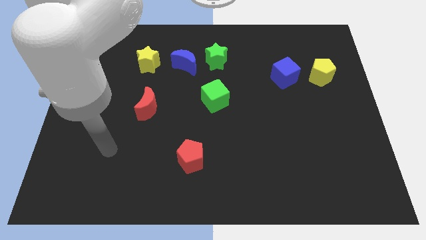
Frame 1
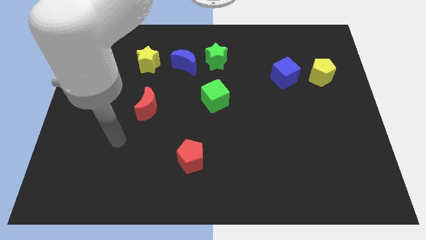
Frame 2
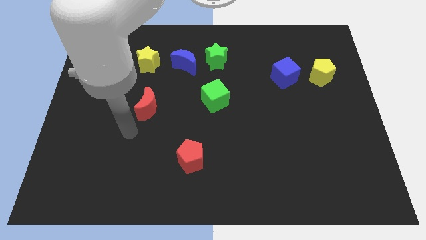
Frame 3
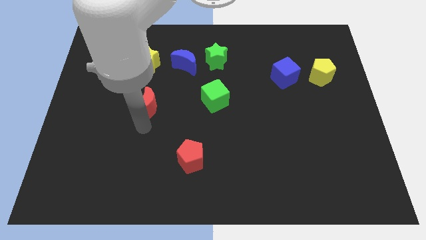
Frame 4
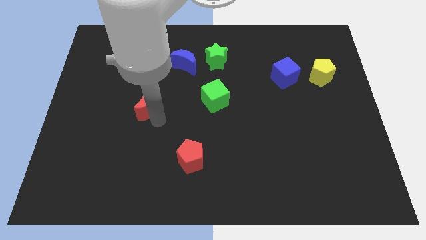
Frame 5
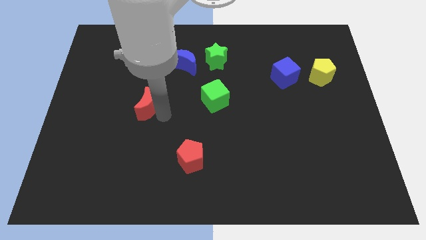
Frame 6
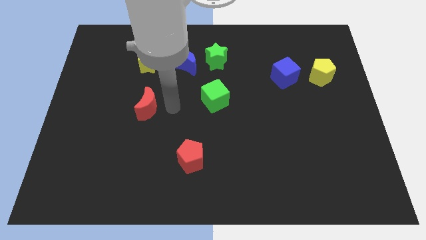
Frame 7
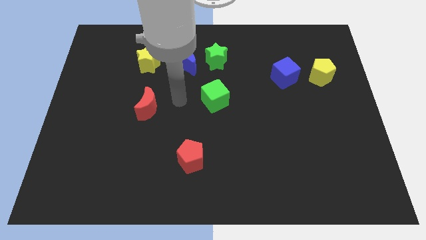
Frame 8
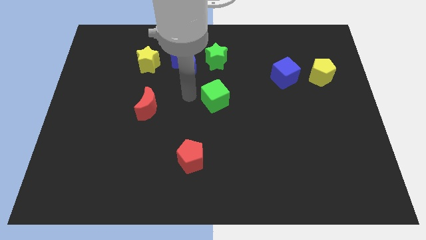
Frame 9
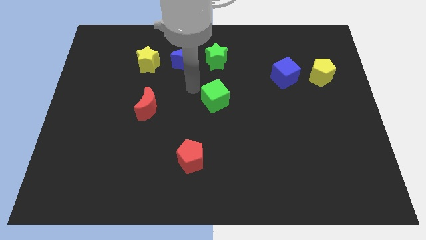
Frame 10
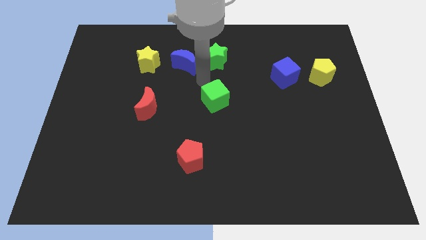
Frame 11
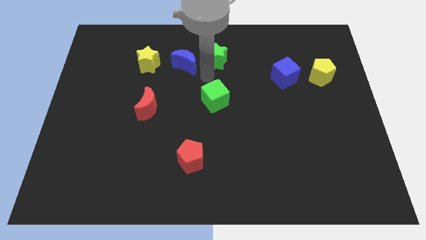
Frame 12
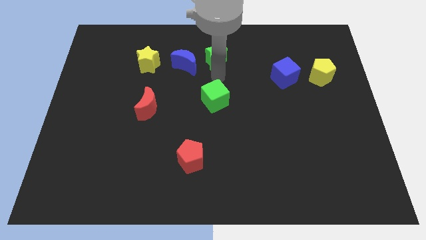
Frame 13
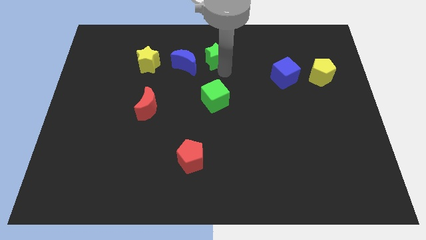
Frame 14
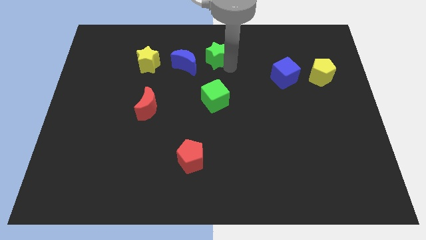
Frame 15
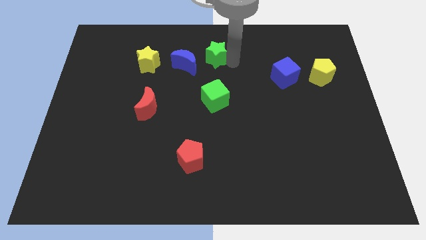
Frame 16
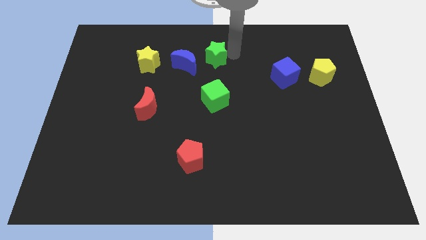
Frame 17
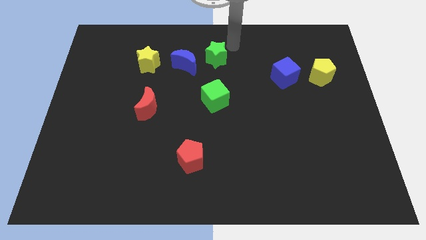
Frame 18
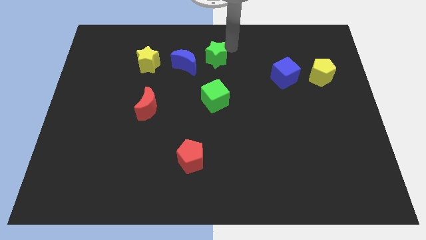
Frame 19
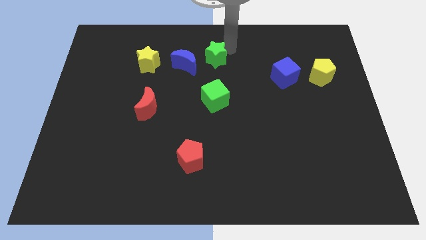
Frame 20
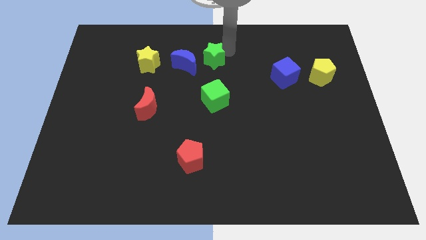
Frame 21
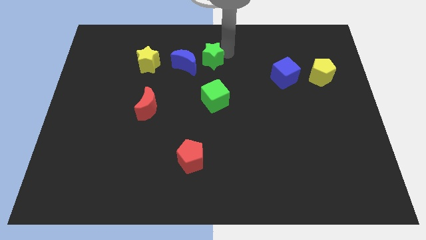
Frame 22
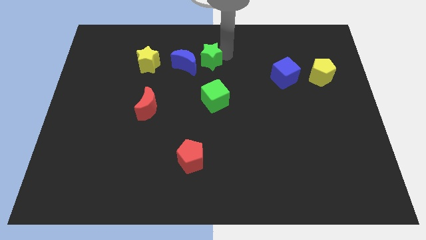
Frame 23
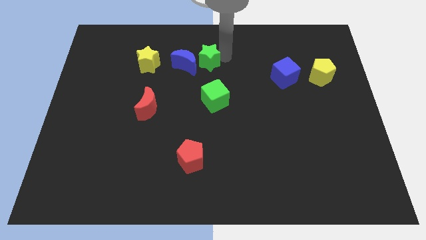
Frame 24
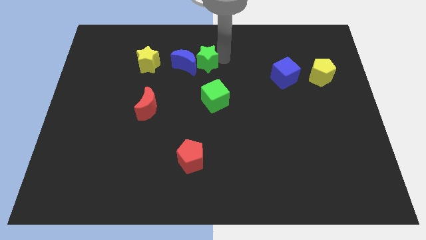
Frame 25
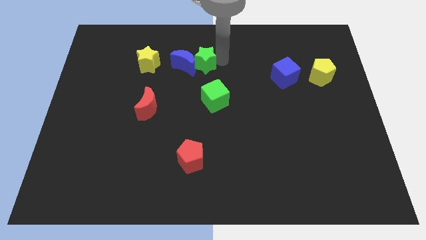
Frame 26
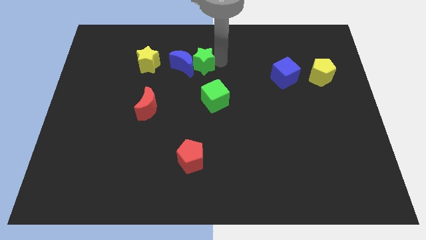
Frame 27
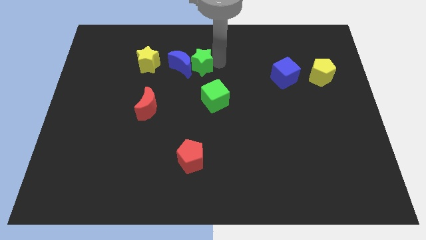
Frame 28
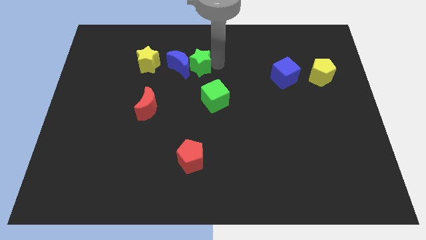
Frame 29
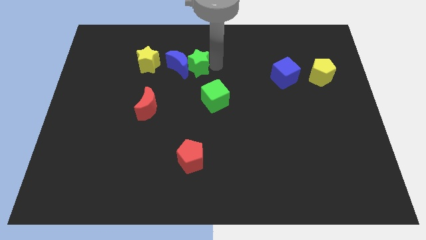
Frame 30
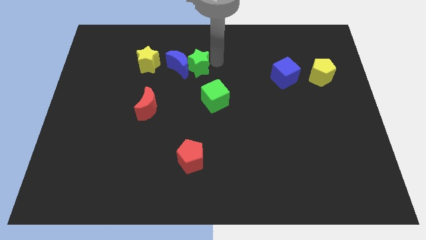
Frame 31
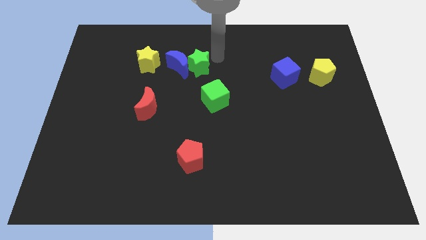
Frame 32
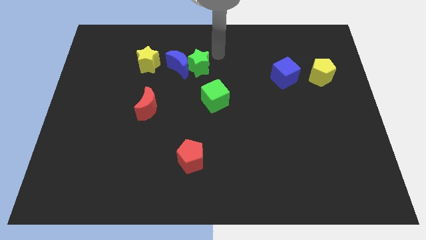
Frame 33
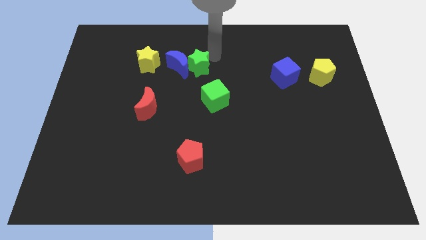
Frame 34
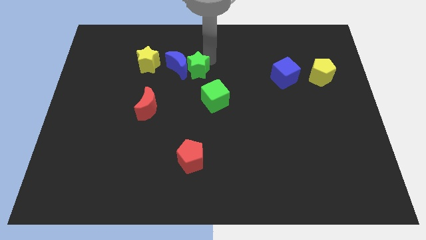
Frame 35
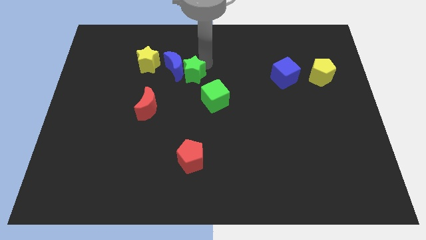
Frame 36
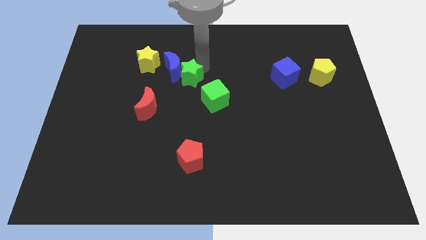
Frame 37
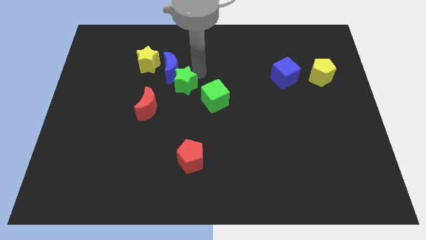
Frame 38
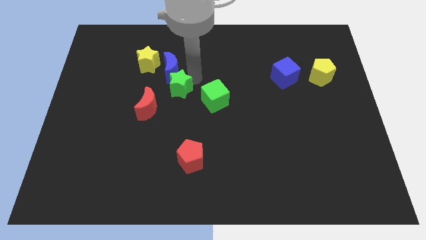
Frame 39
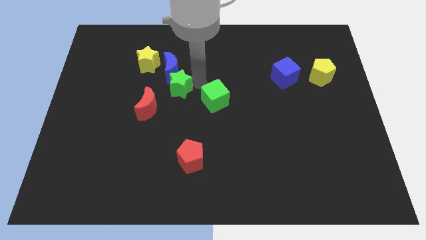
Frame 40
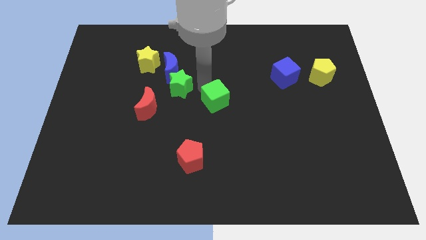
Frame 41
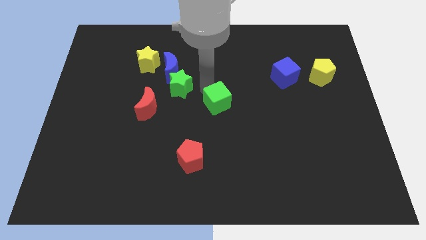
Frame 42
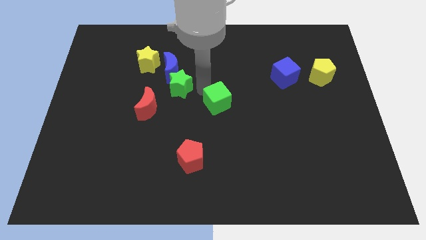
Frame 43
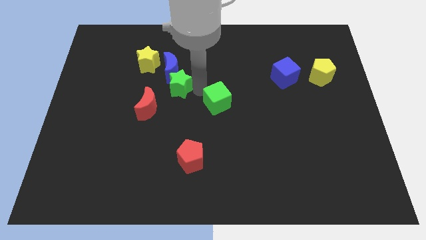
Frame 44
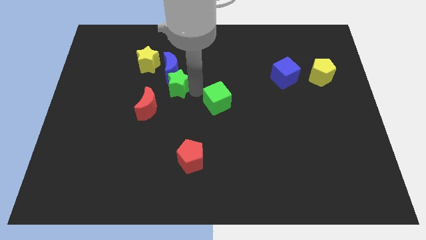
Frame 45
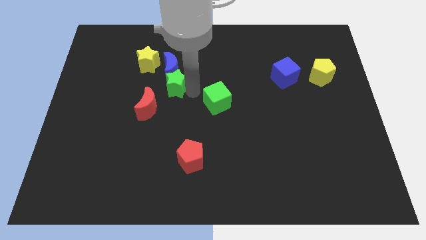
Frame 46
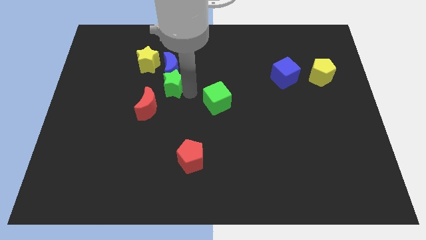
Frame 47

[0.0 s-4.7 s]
slide the green star diagonally down and to the left of the blue moon

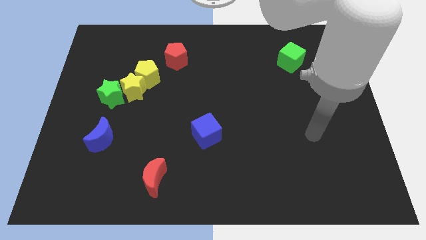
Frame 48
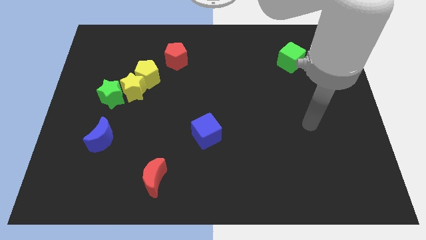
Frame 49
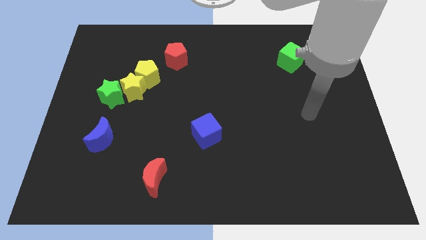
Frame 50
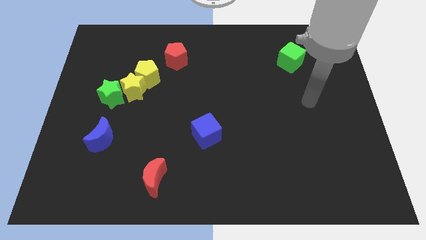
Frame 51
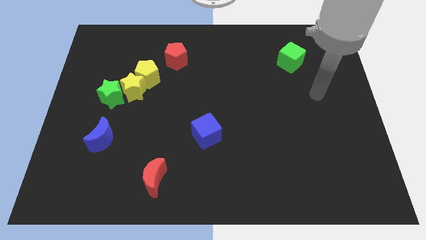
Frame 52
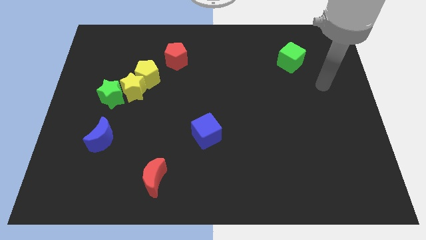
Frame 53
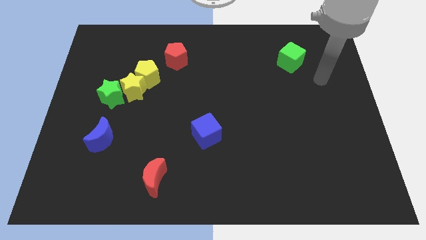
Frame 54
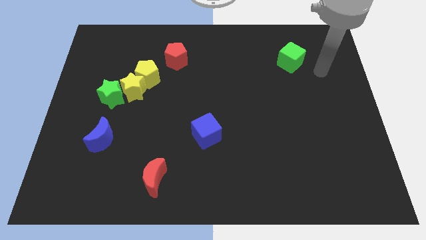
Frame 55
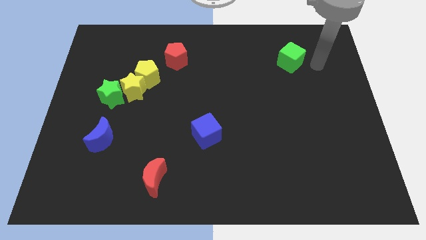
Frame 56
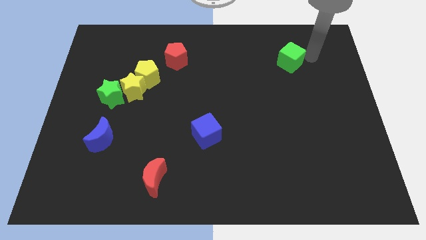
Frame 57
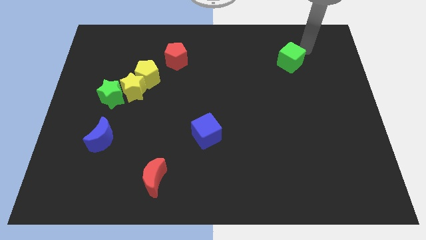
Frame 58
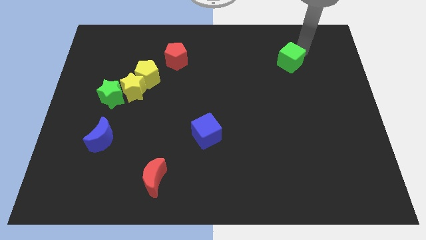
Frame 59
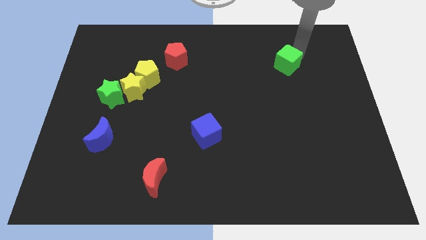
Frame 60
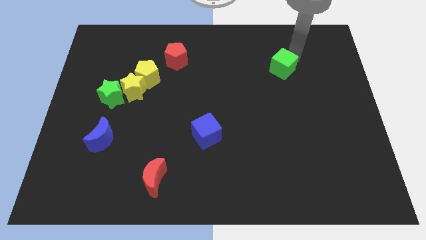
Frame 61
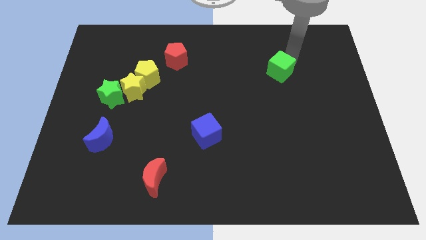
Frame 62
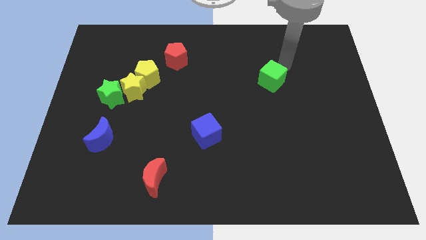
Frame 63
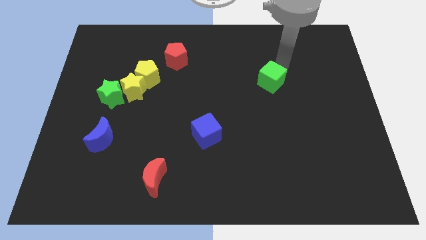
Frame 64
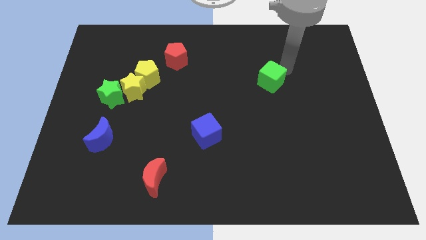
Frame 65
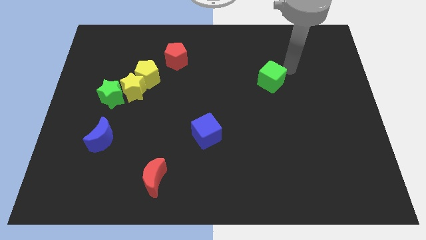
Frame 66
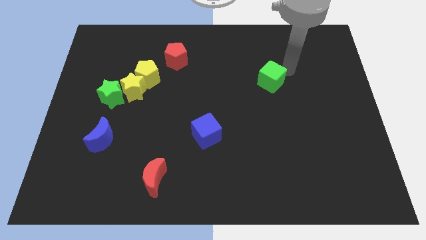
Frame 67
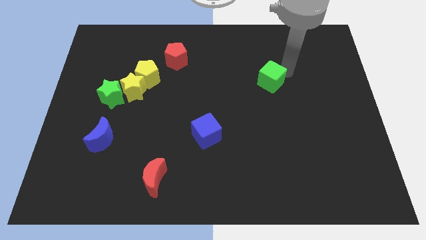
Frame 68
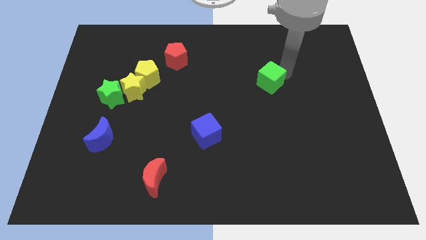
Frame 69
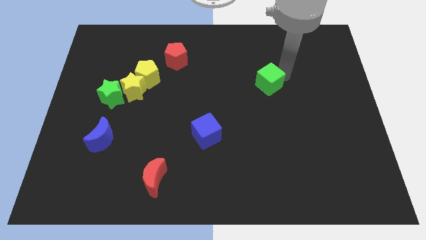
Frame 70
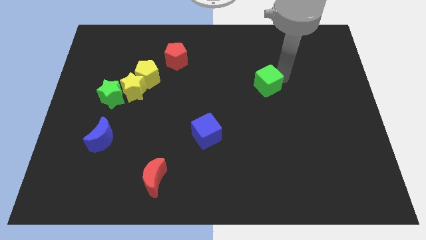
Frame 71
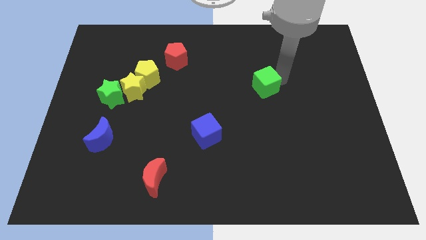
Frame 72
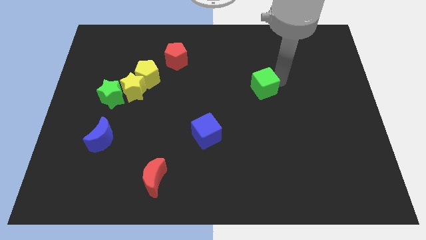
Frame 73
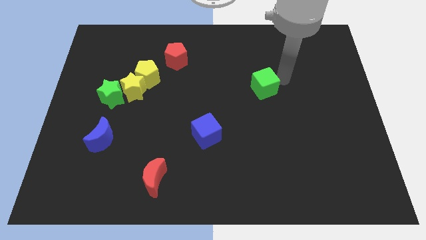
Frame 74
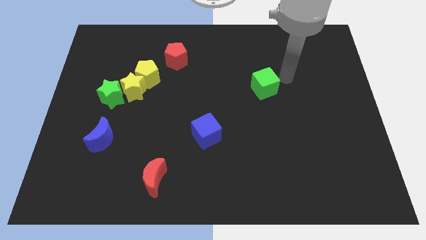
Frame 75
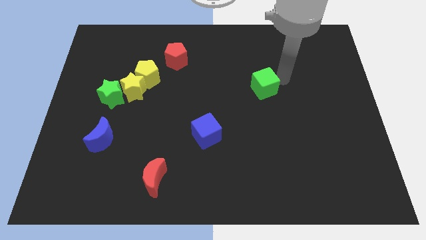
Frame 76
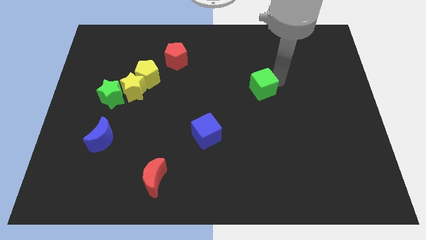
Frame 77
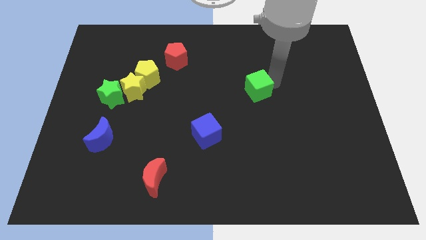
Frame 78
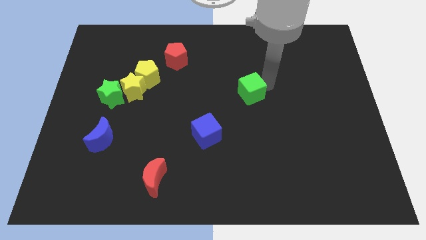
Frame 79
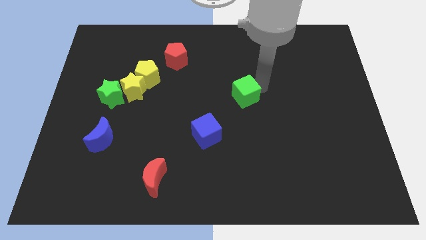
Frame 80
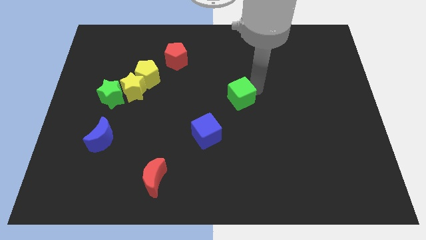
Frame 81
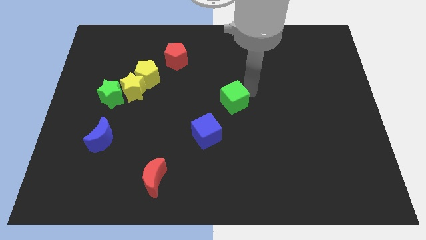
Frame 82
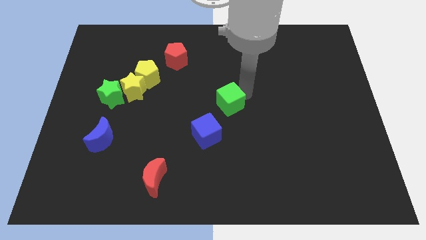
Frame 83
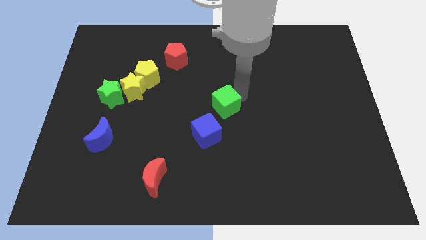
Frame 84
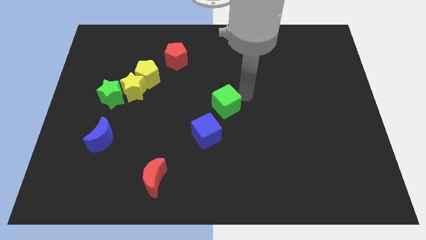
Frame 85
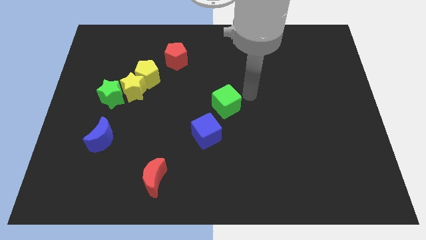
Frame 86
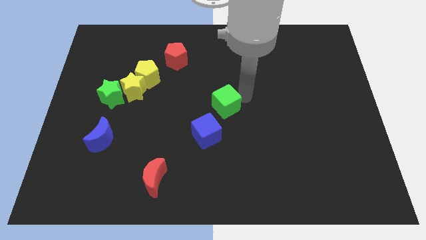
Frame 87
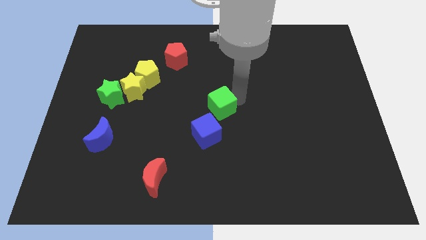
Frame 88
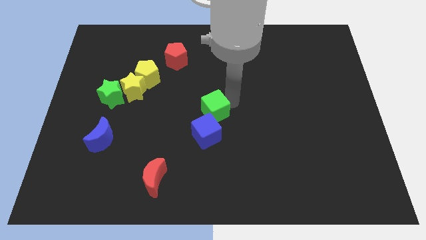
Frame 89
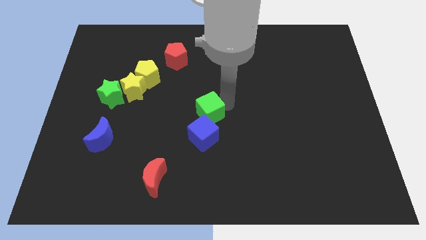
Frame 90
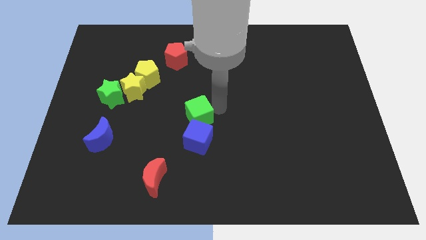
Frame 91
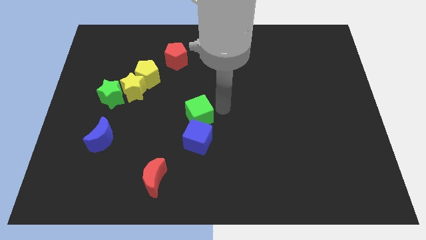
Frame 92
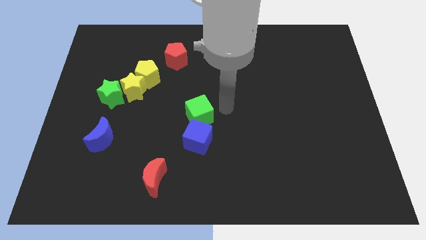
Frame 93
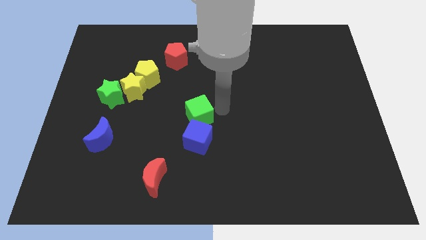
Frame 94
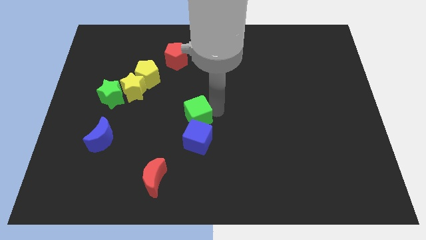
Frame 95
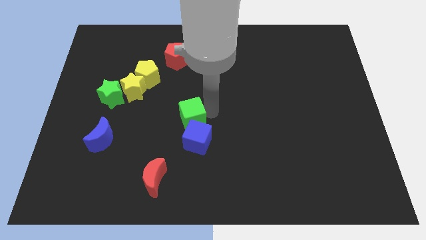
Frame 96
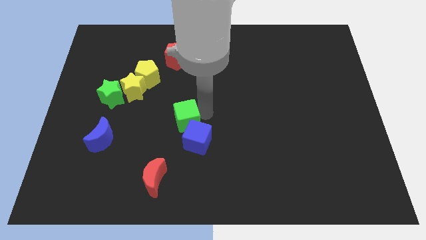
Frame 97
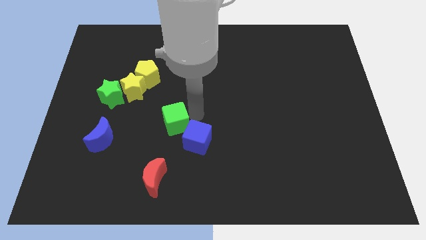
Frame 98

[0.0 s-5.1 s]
move the green cube to the top of the red moon
